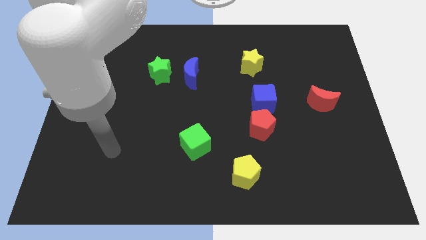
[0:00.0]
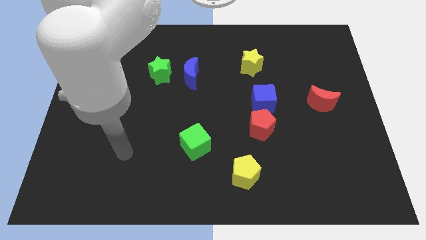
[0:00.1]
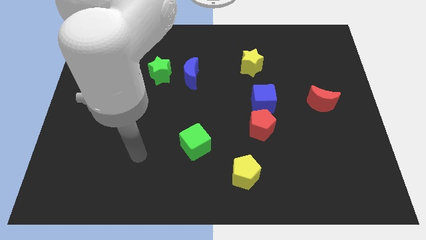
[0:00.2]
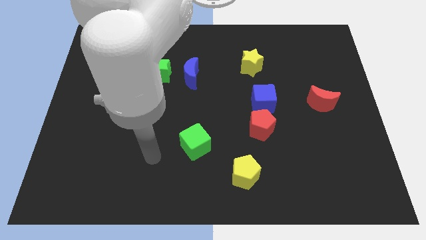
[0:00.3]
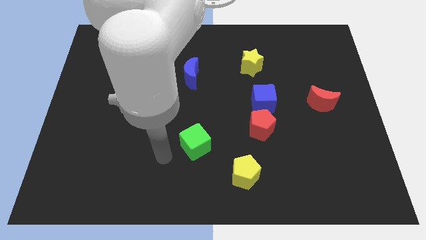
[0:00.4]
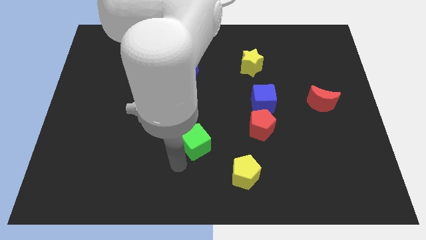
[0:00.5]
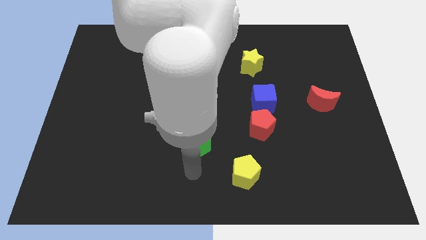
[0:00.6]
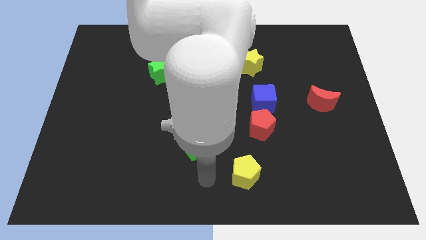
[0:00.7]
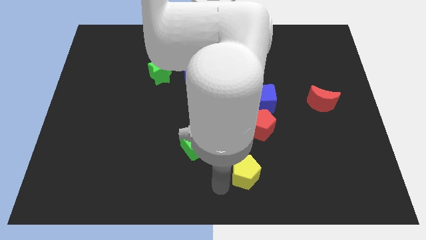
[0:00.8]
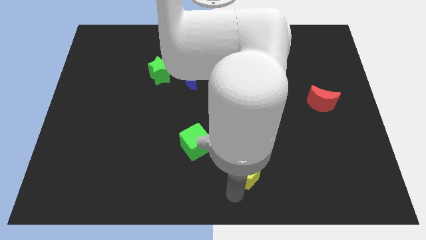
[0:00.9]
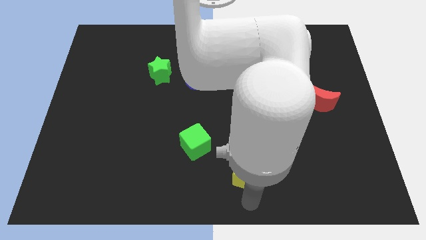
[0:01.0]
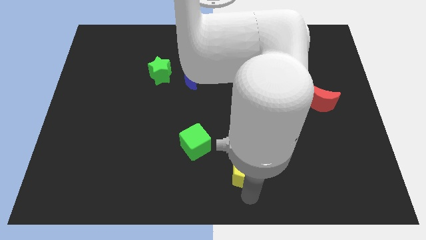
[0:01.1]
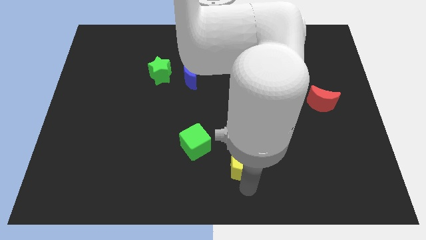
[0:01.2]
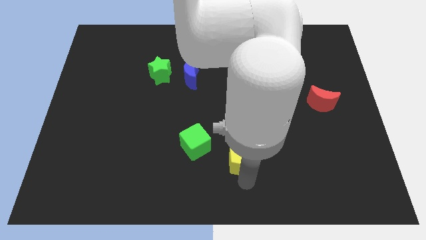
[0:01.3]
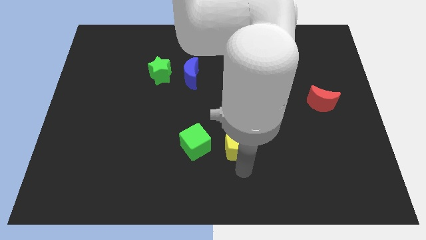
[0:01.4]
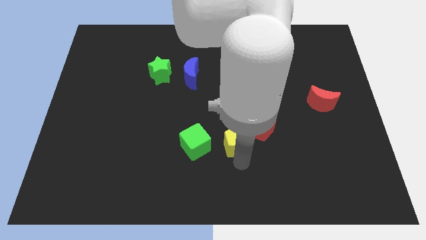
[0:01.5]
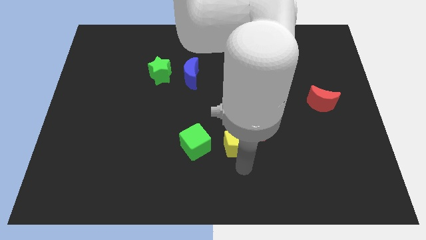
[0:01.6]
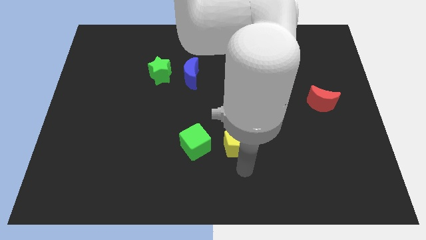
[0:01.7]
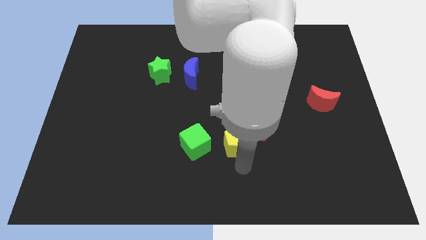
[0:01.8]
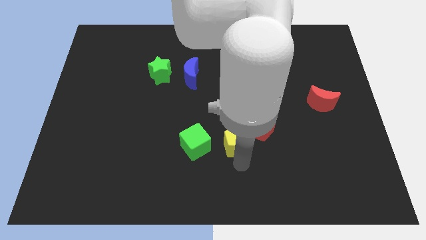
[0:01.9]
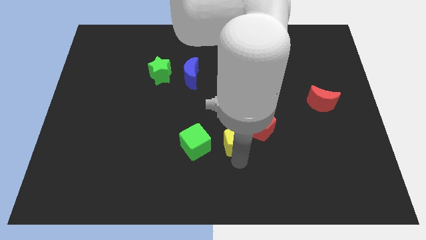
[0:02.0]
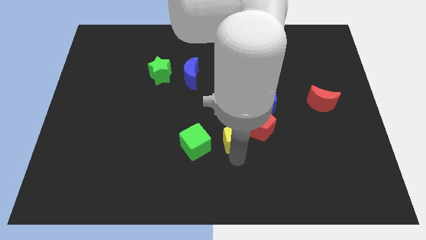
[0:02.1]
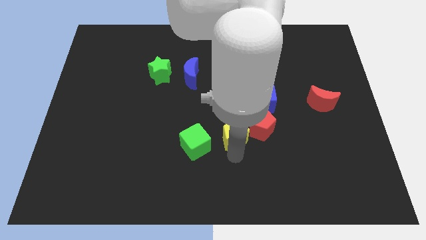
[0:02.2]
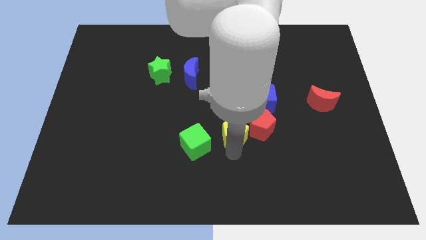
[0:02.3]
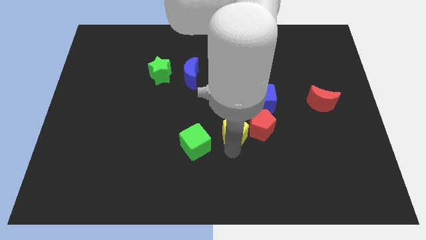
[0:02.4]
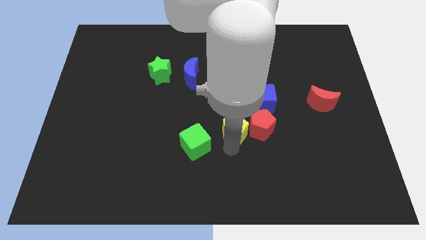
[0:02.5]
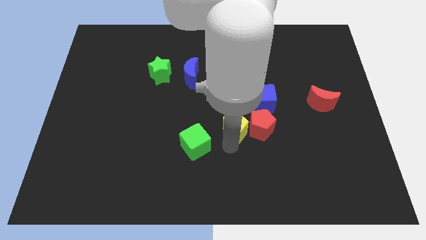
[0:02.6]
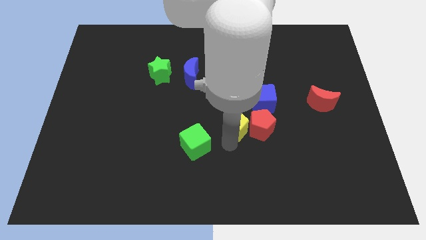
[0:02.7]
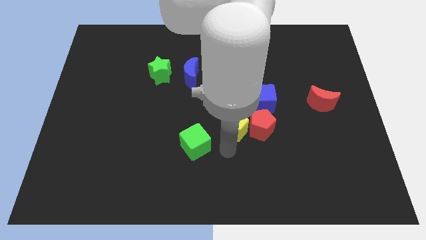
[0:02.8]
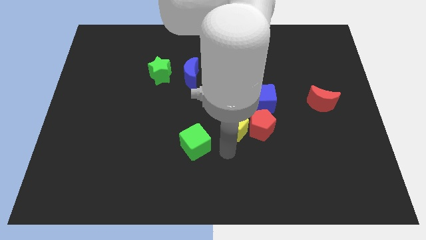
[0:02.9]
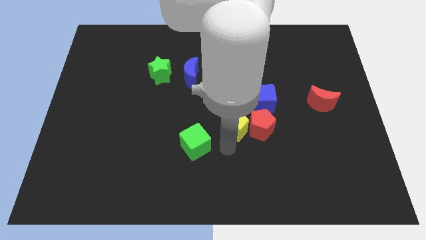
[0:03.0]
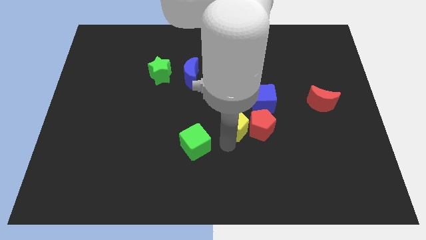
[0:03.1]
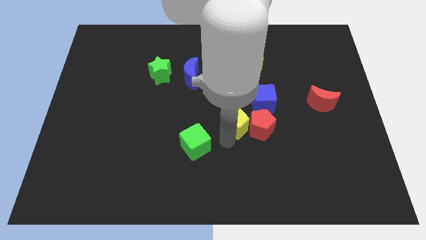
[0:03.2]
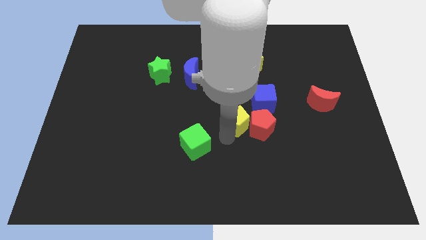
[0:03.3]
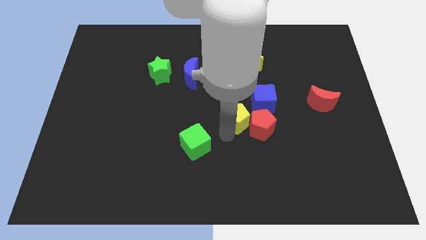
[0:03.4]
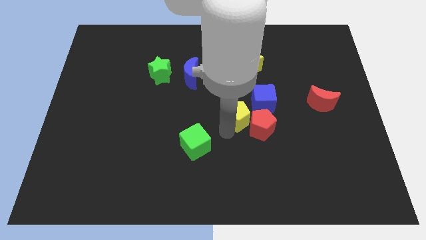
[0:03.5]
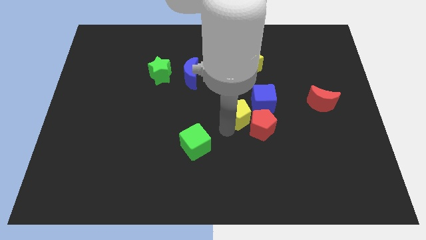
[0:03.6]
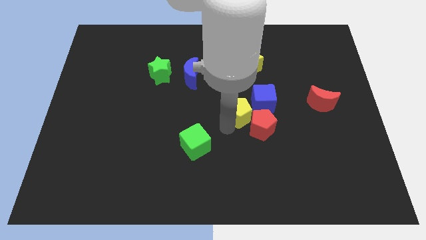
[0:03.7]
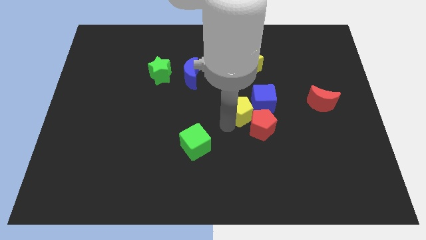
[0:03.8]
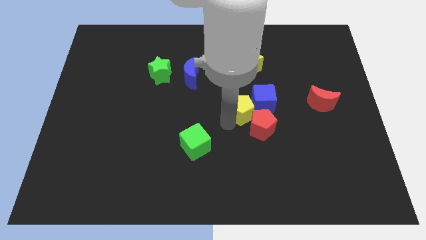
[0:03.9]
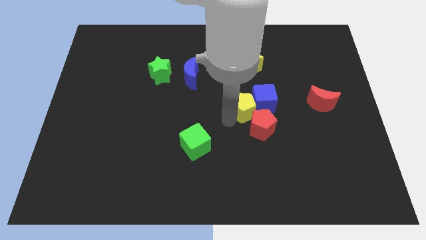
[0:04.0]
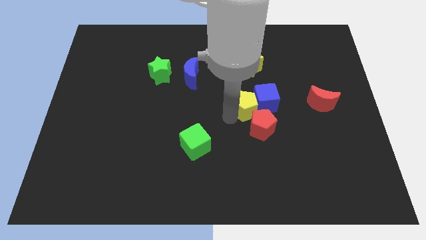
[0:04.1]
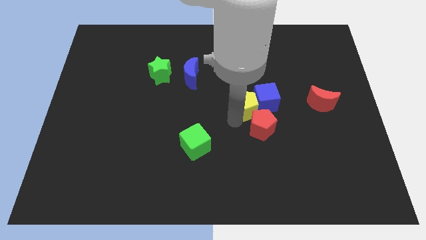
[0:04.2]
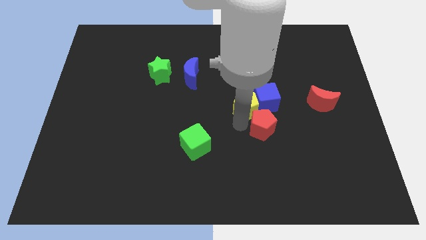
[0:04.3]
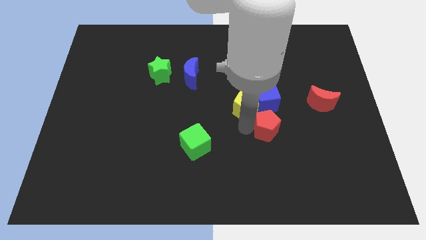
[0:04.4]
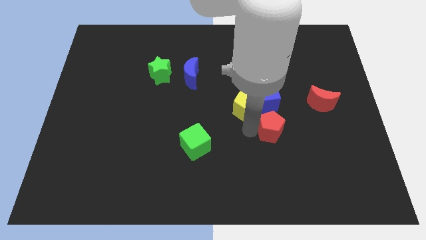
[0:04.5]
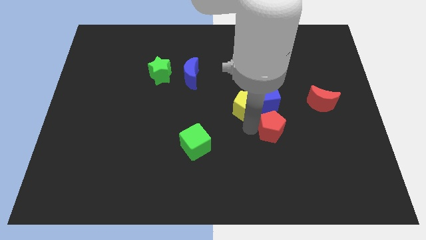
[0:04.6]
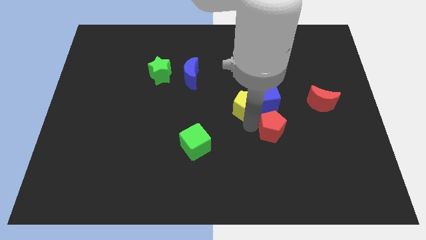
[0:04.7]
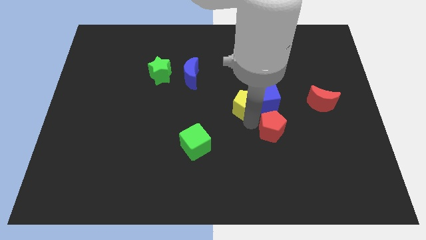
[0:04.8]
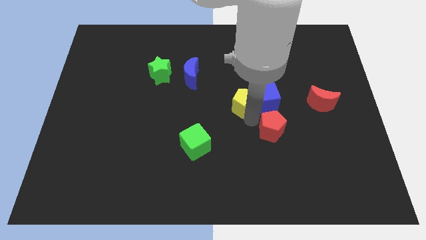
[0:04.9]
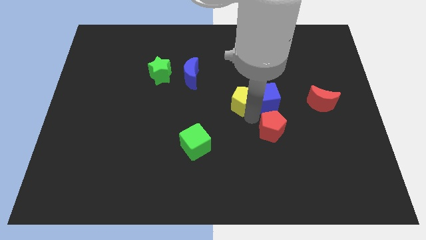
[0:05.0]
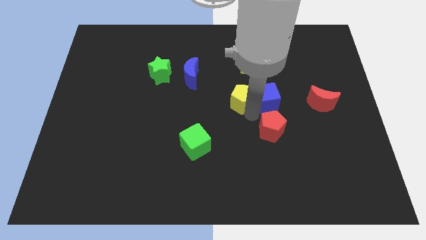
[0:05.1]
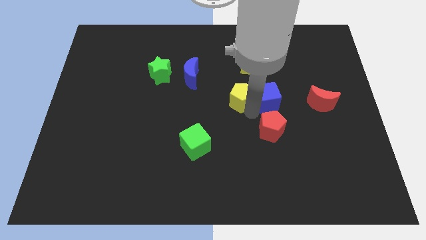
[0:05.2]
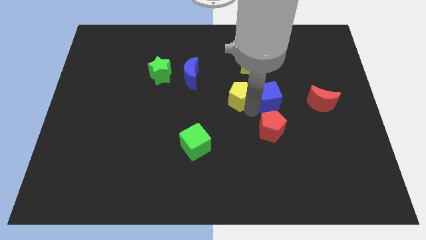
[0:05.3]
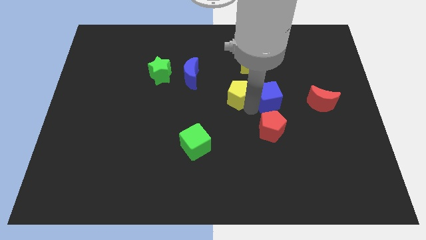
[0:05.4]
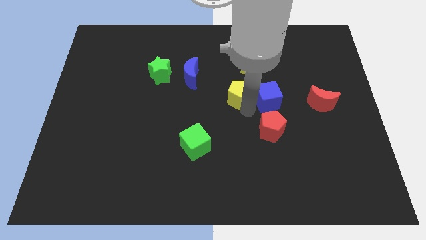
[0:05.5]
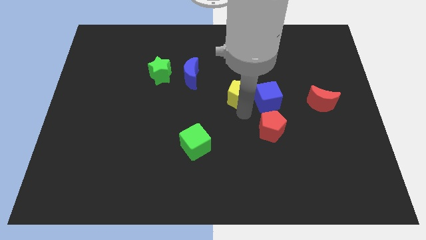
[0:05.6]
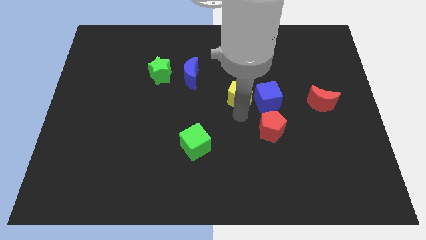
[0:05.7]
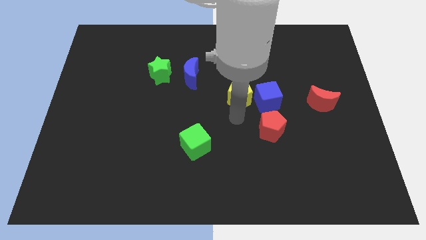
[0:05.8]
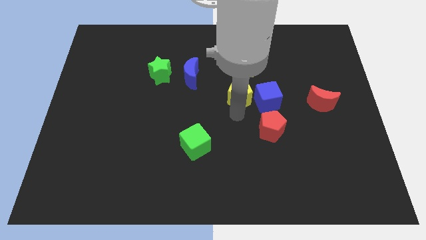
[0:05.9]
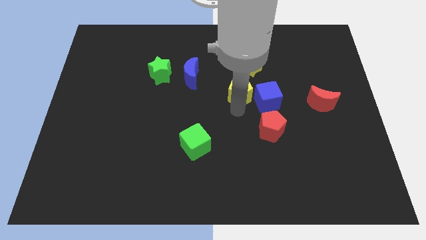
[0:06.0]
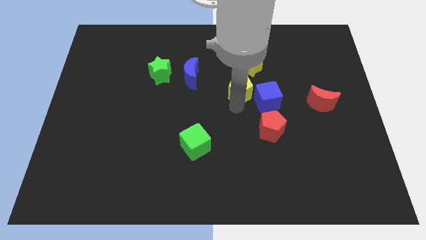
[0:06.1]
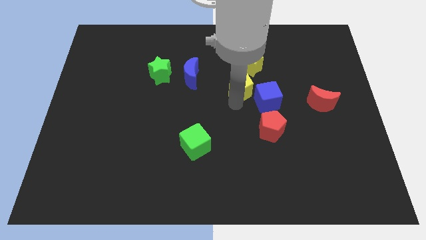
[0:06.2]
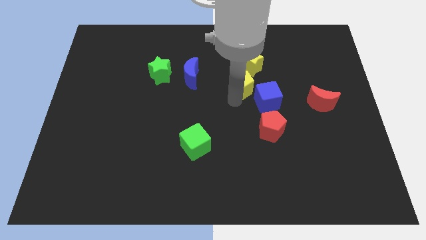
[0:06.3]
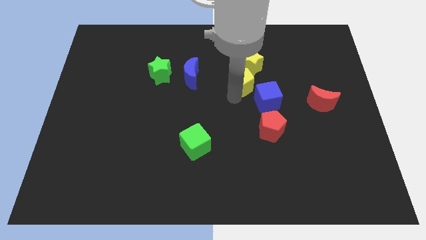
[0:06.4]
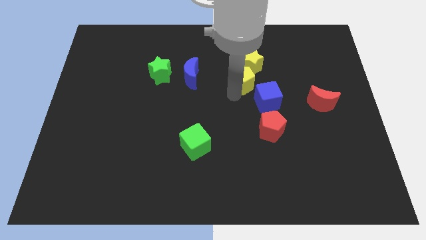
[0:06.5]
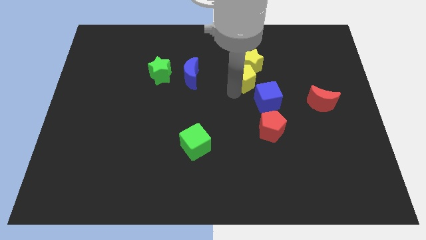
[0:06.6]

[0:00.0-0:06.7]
slide the yellow pentagon next to the yellow star

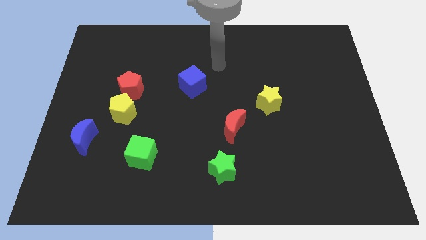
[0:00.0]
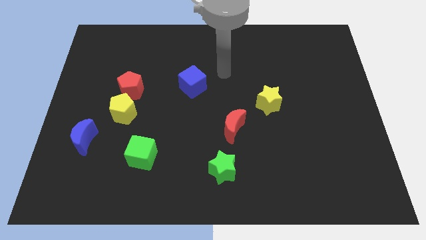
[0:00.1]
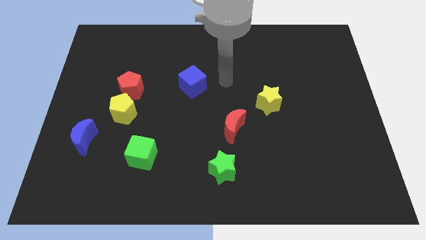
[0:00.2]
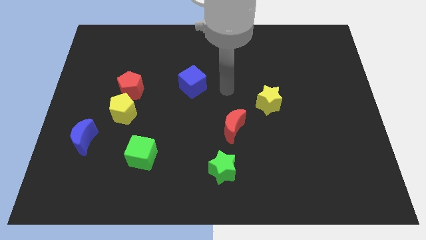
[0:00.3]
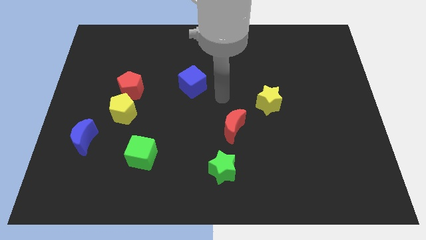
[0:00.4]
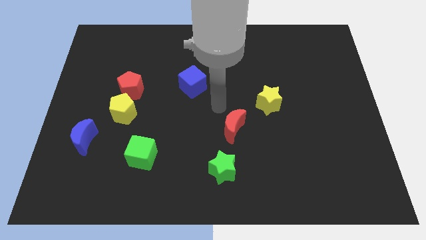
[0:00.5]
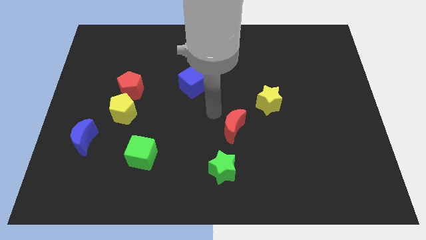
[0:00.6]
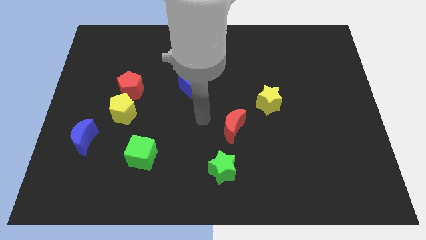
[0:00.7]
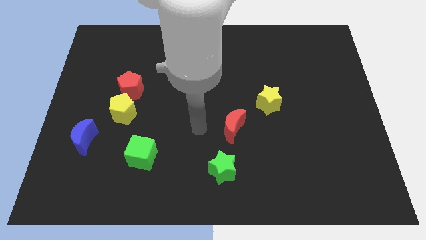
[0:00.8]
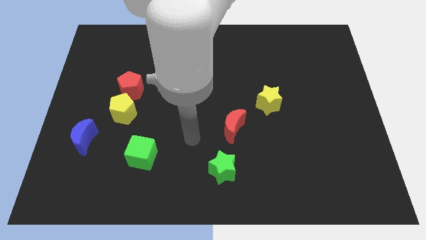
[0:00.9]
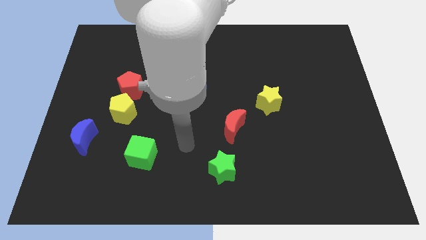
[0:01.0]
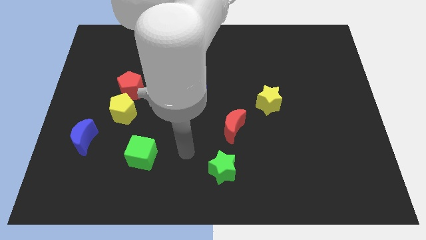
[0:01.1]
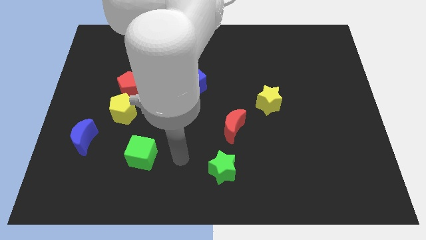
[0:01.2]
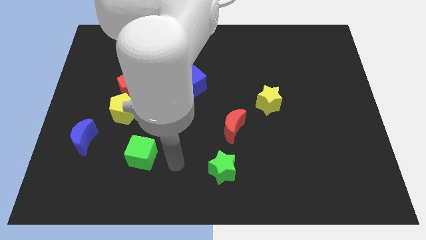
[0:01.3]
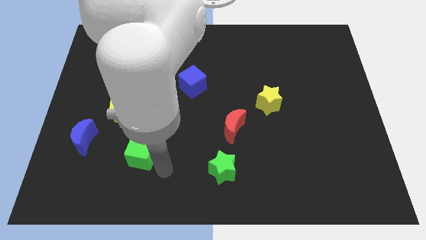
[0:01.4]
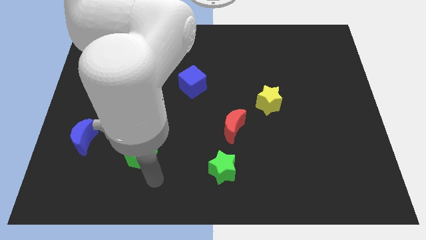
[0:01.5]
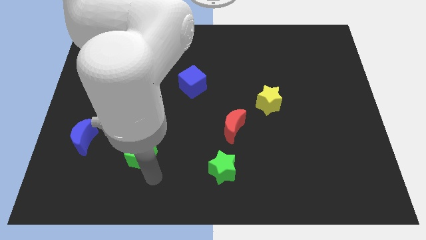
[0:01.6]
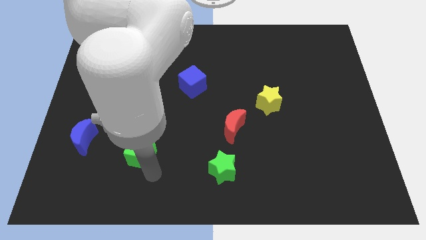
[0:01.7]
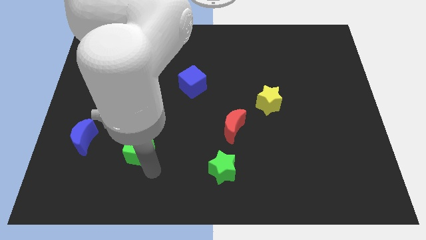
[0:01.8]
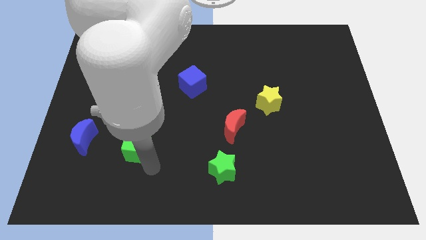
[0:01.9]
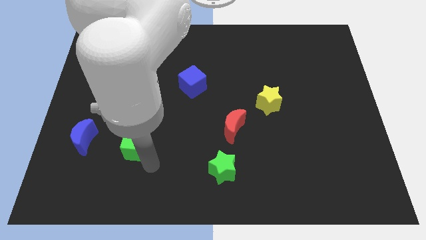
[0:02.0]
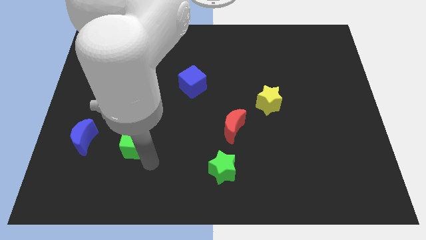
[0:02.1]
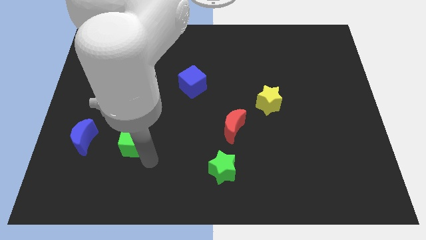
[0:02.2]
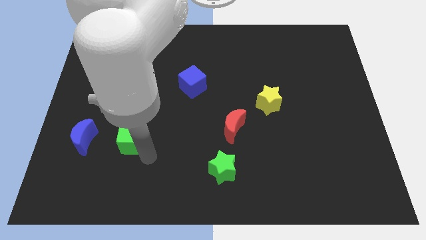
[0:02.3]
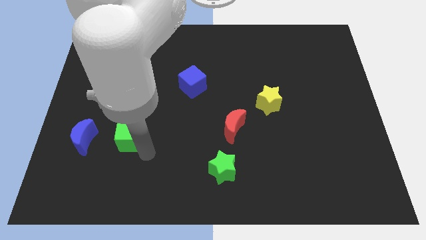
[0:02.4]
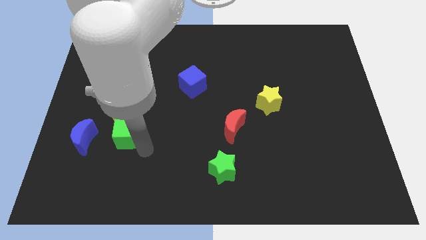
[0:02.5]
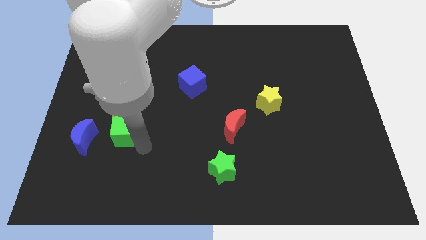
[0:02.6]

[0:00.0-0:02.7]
slide the green cube towards the yellow pentagon
